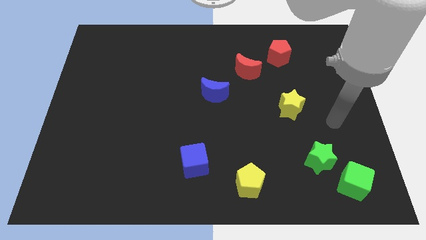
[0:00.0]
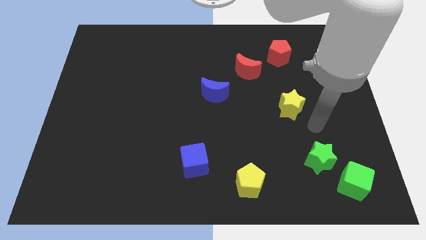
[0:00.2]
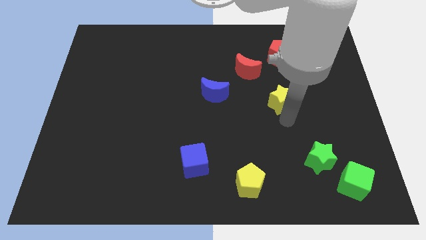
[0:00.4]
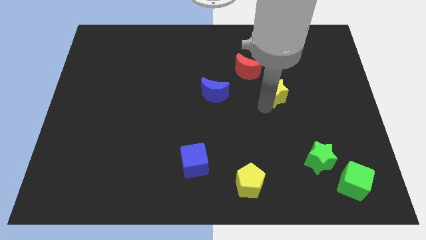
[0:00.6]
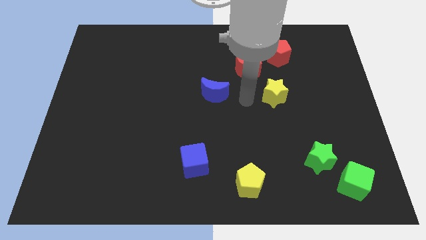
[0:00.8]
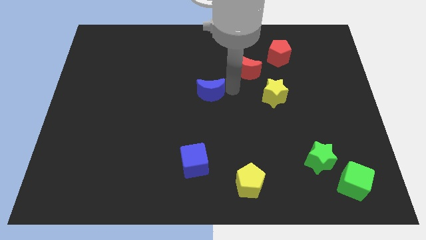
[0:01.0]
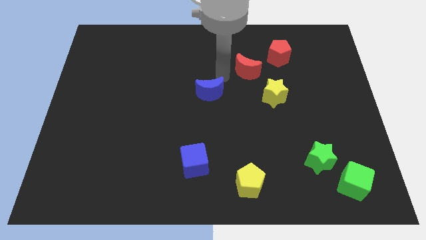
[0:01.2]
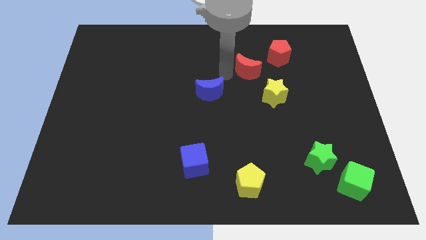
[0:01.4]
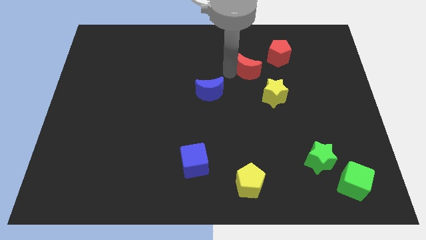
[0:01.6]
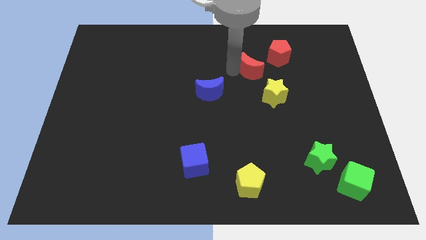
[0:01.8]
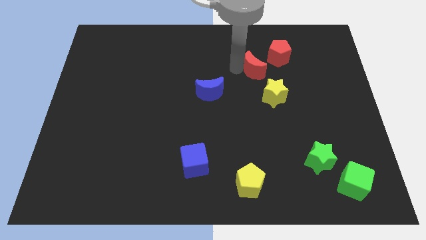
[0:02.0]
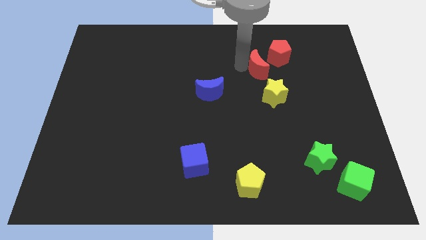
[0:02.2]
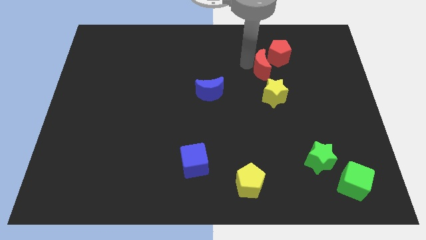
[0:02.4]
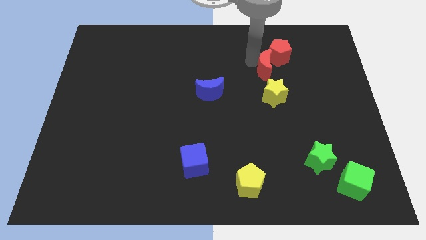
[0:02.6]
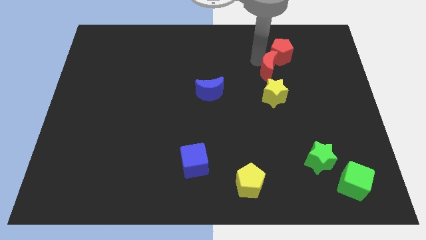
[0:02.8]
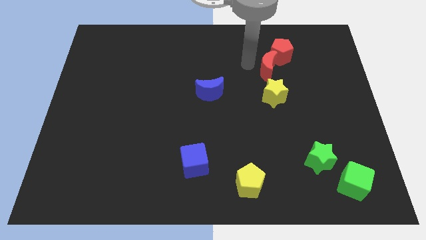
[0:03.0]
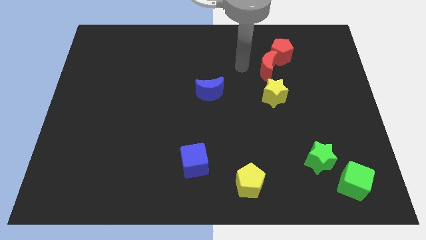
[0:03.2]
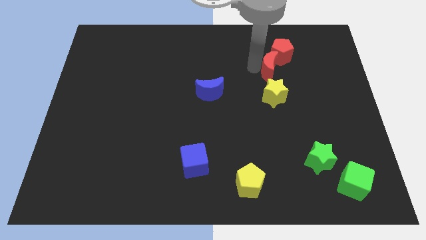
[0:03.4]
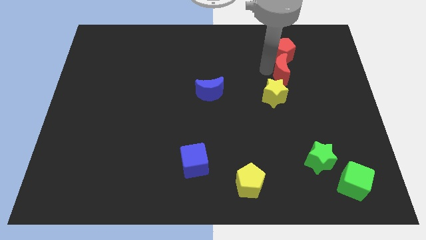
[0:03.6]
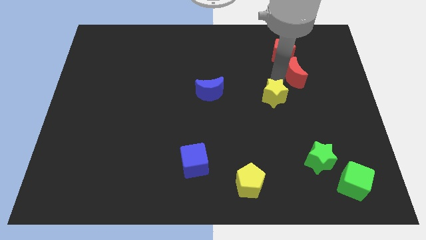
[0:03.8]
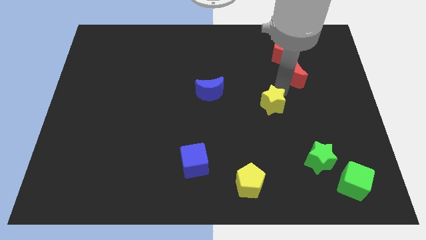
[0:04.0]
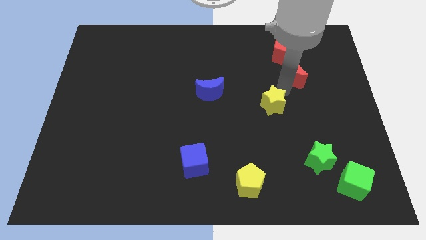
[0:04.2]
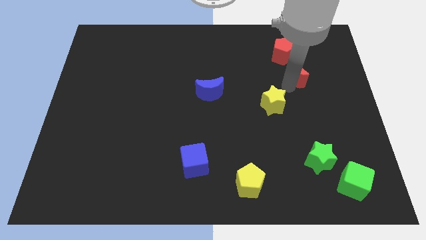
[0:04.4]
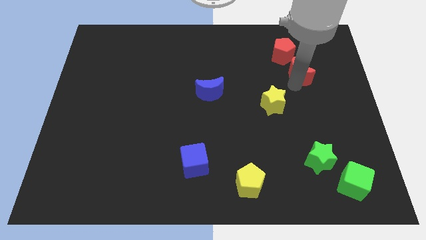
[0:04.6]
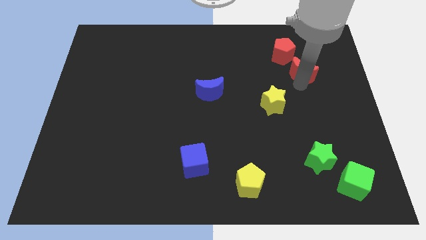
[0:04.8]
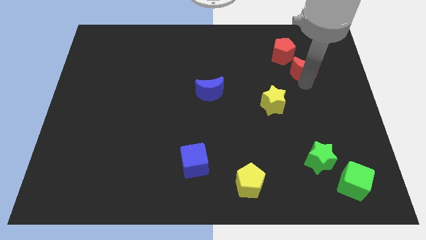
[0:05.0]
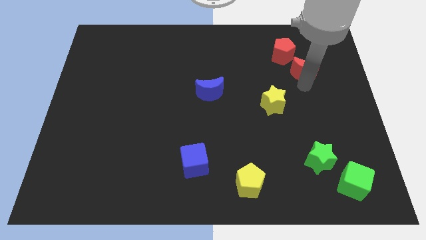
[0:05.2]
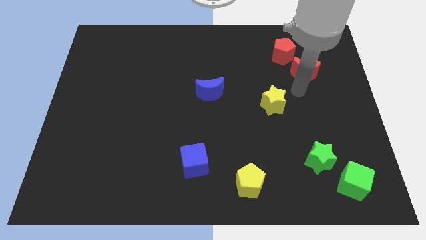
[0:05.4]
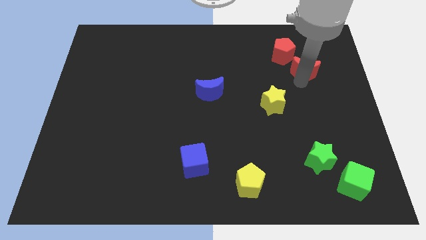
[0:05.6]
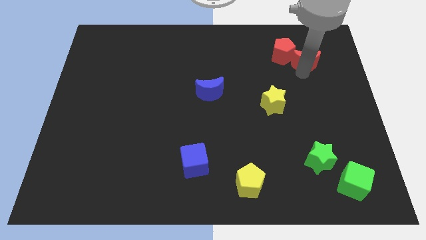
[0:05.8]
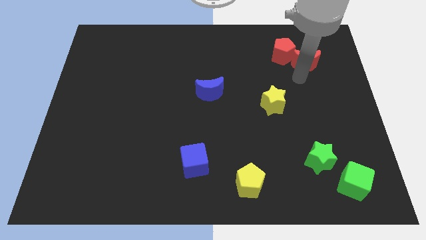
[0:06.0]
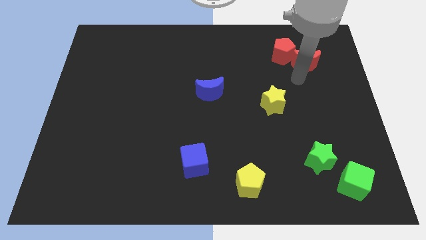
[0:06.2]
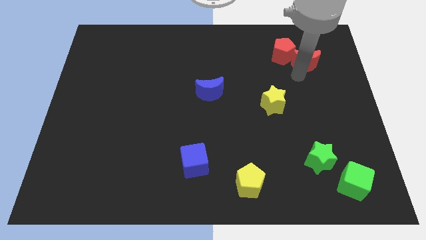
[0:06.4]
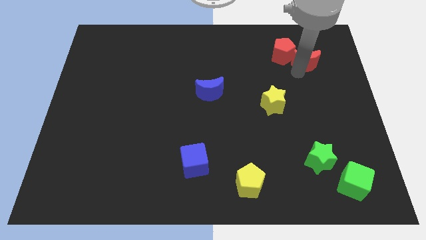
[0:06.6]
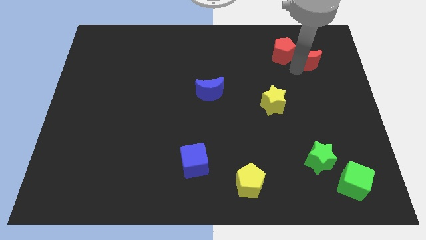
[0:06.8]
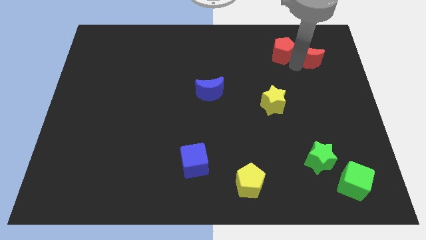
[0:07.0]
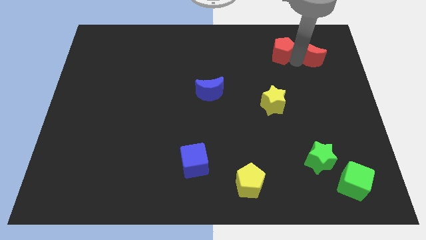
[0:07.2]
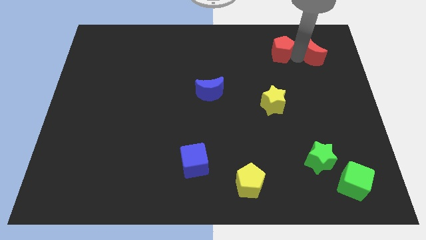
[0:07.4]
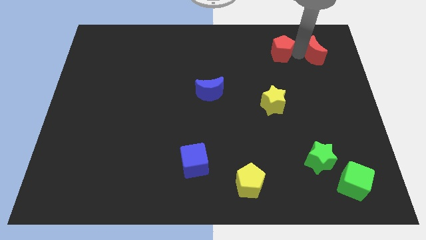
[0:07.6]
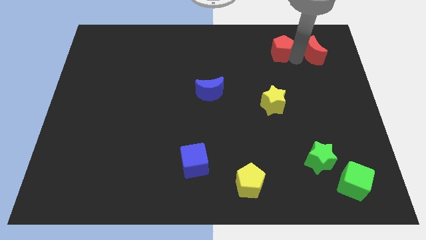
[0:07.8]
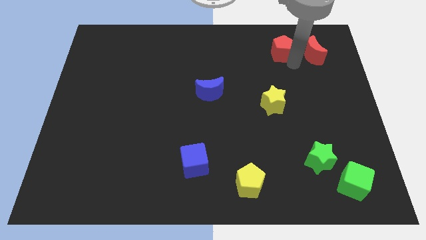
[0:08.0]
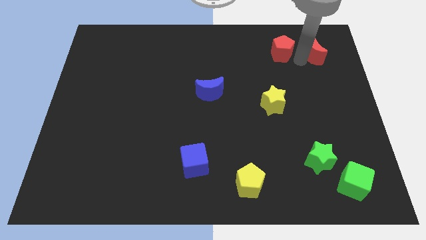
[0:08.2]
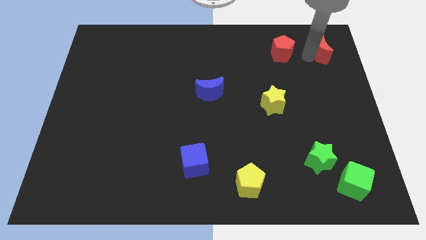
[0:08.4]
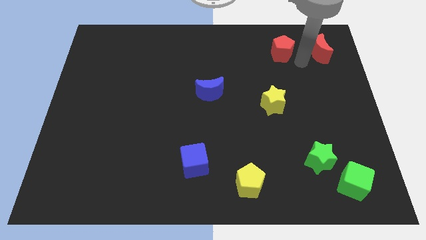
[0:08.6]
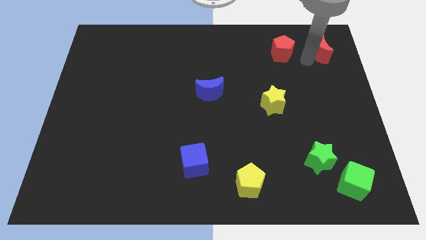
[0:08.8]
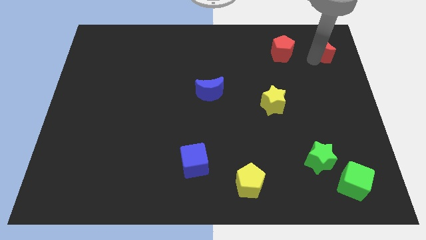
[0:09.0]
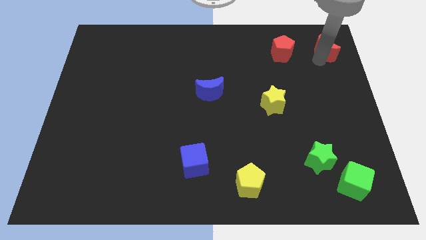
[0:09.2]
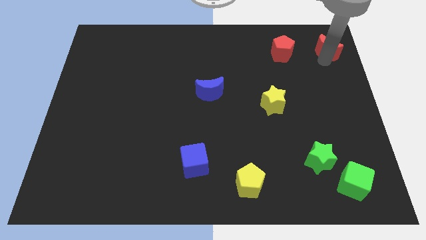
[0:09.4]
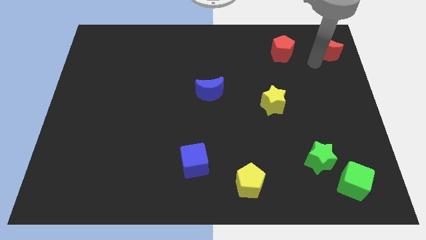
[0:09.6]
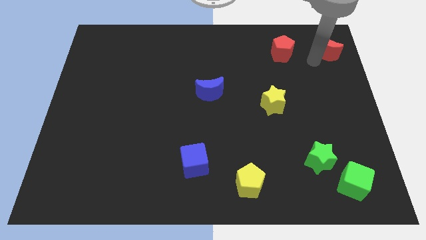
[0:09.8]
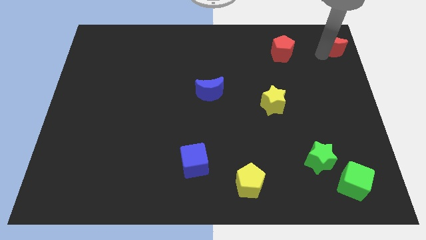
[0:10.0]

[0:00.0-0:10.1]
push the red moon to the top right

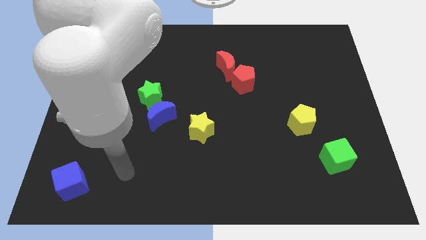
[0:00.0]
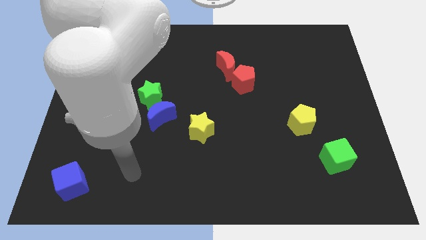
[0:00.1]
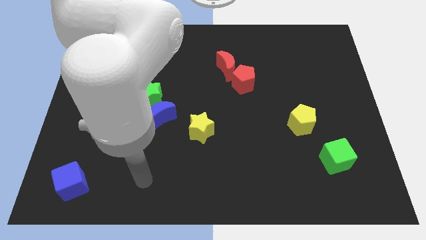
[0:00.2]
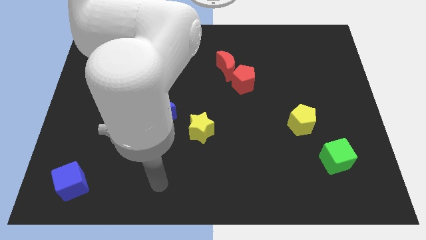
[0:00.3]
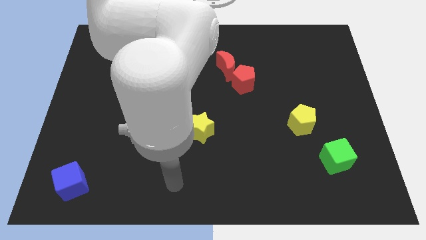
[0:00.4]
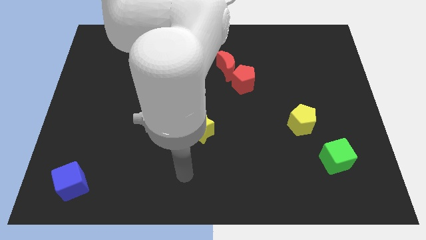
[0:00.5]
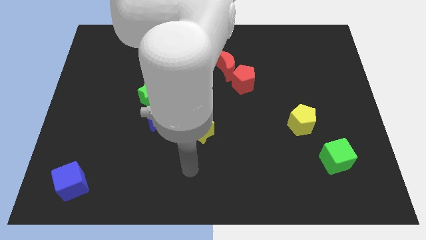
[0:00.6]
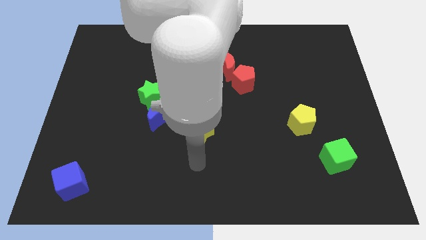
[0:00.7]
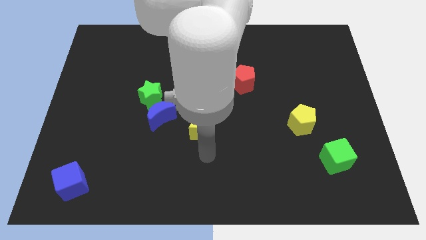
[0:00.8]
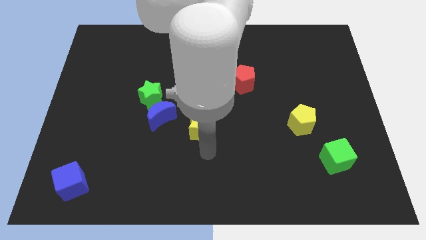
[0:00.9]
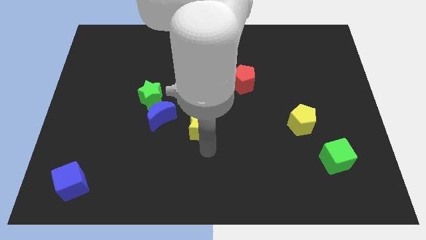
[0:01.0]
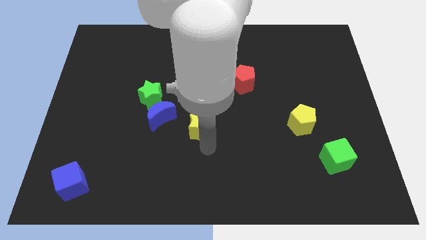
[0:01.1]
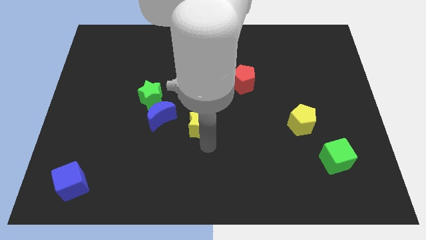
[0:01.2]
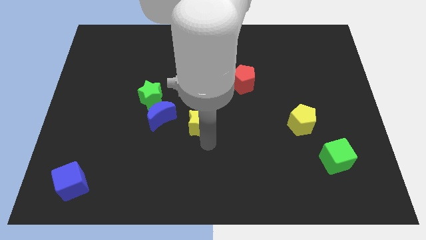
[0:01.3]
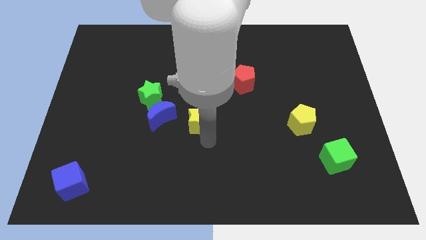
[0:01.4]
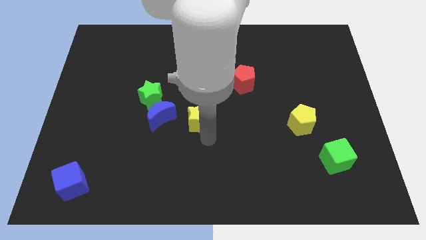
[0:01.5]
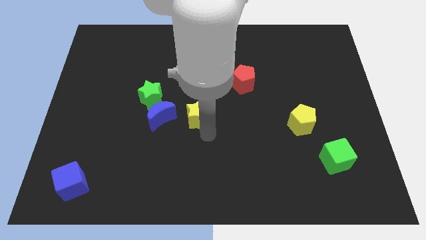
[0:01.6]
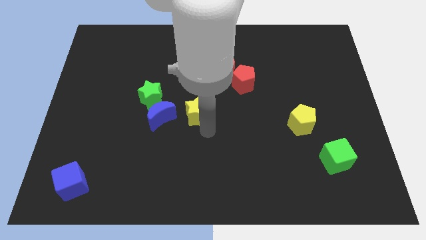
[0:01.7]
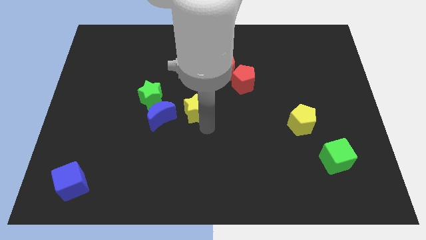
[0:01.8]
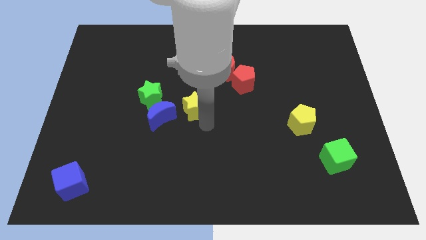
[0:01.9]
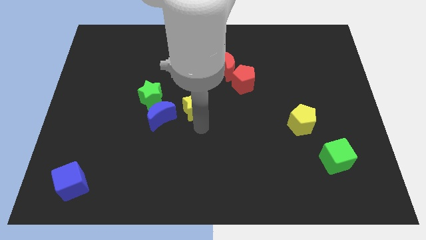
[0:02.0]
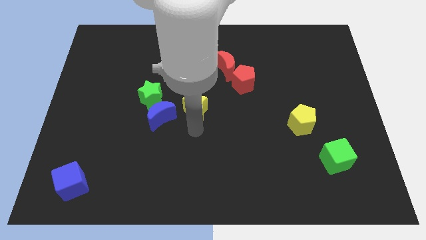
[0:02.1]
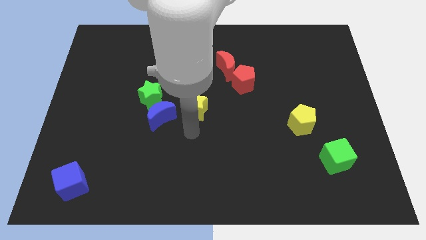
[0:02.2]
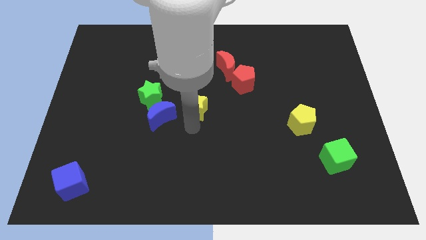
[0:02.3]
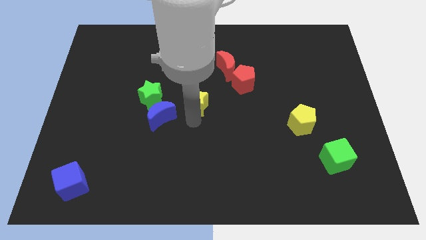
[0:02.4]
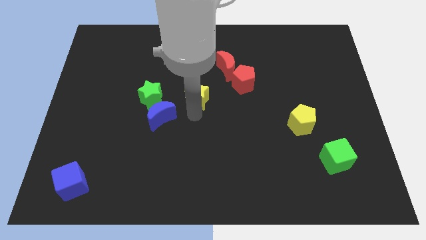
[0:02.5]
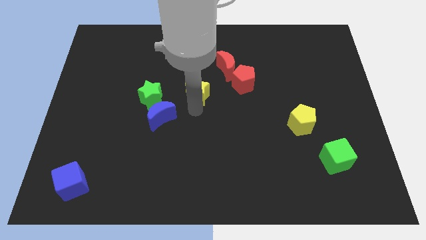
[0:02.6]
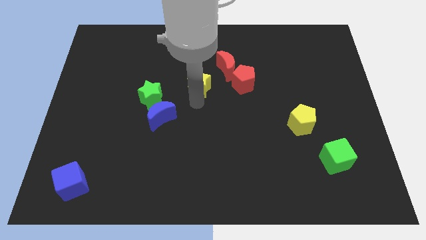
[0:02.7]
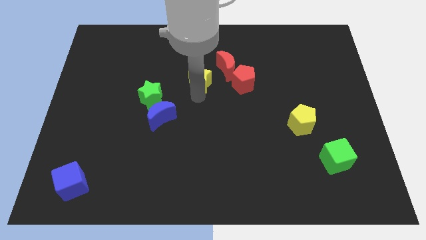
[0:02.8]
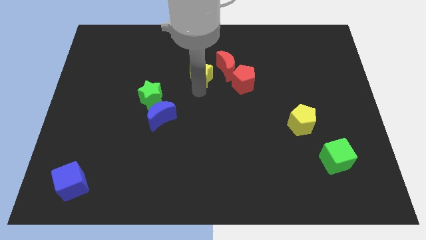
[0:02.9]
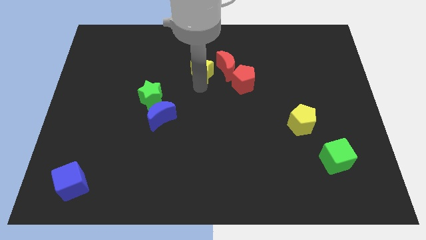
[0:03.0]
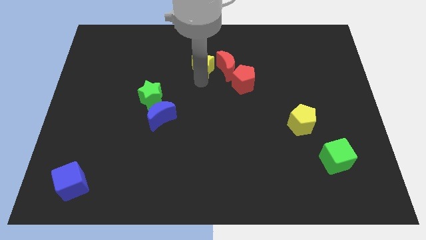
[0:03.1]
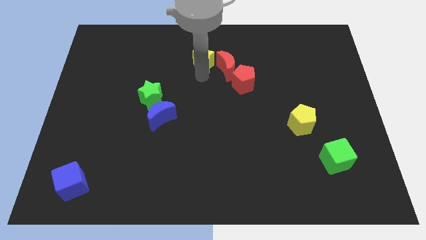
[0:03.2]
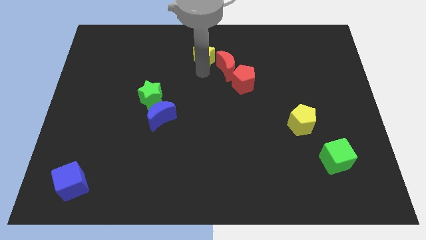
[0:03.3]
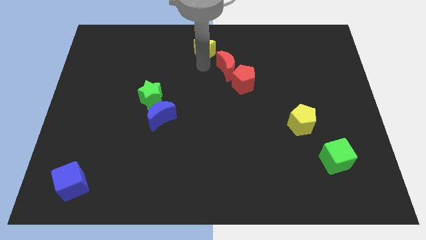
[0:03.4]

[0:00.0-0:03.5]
put the yellow star to the top
